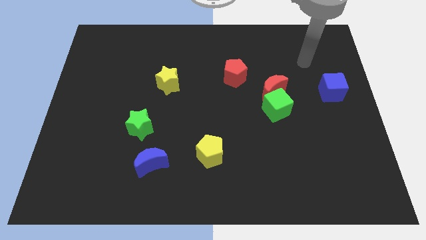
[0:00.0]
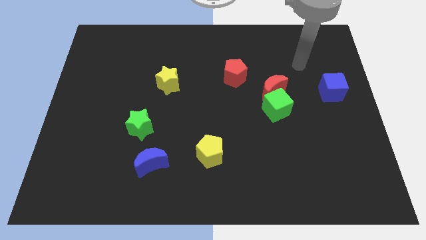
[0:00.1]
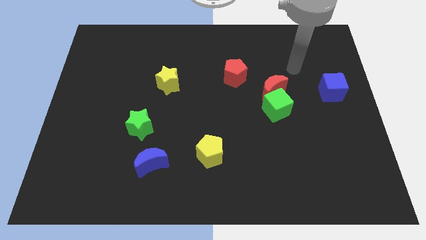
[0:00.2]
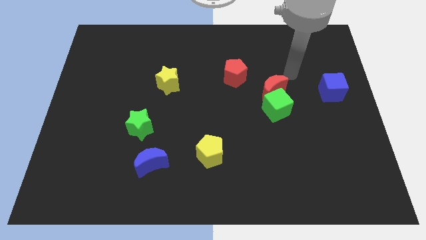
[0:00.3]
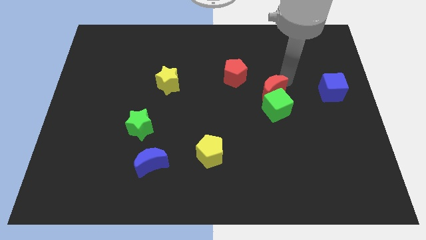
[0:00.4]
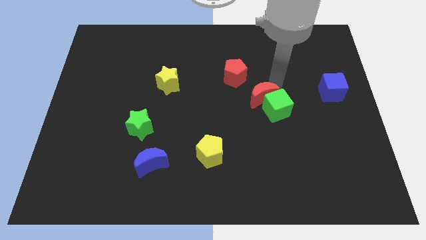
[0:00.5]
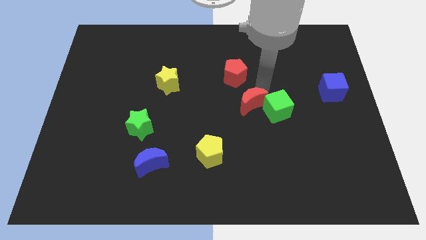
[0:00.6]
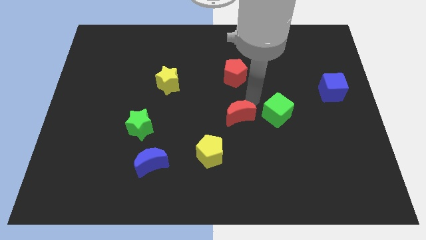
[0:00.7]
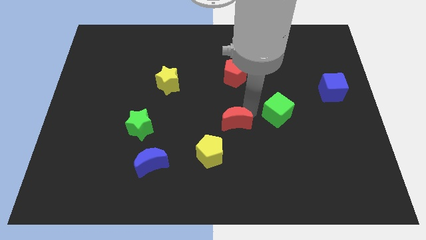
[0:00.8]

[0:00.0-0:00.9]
separate the green cube from the red moon

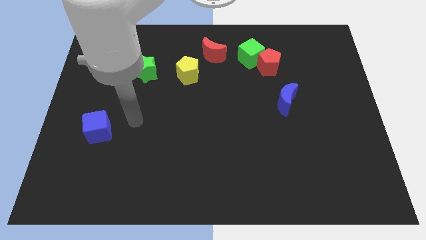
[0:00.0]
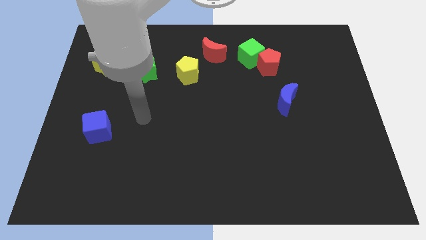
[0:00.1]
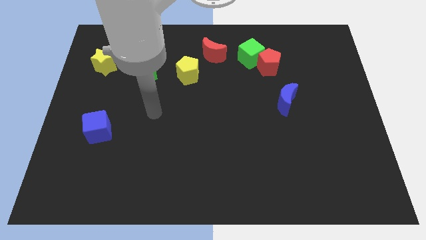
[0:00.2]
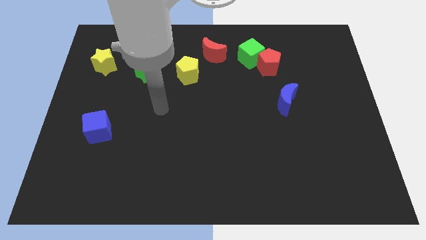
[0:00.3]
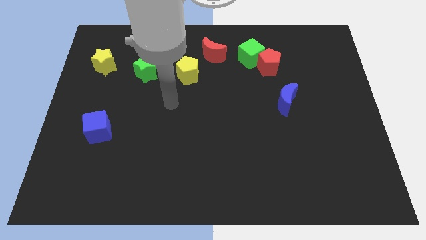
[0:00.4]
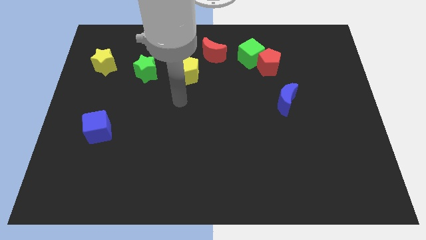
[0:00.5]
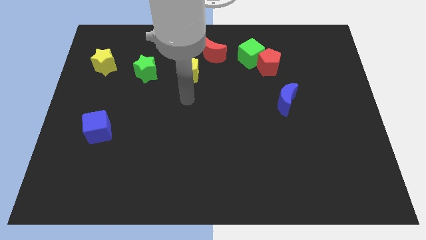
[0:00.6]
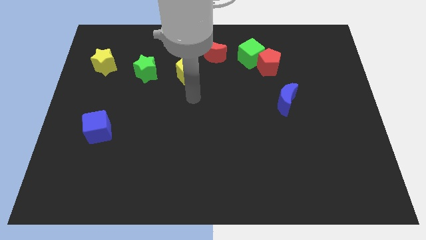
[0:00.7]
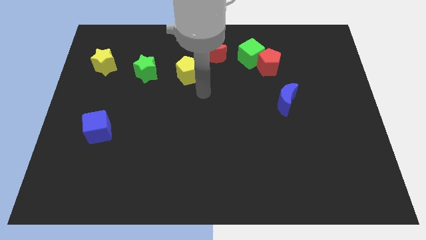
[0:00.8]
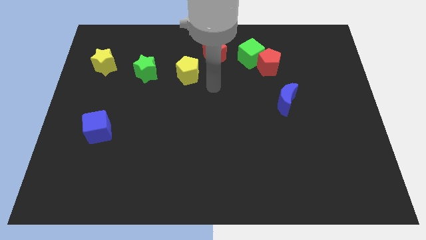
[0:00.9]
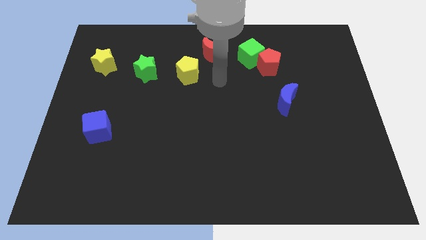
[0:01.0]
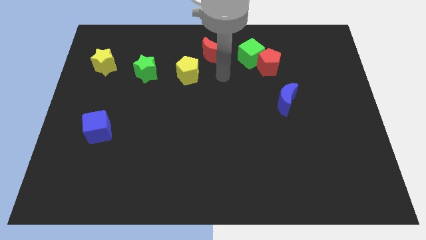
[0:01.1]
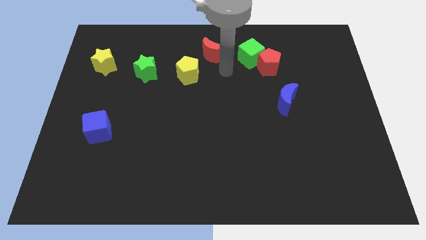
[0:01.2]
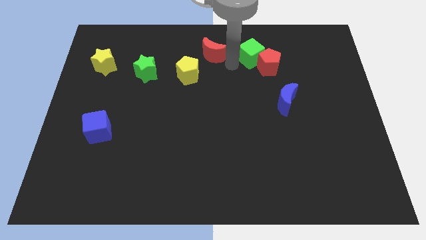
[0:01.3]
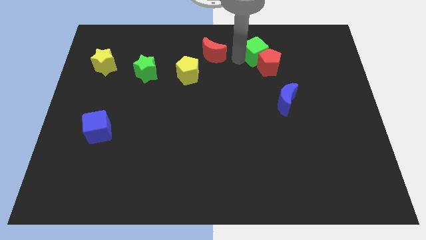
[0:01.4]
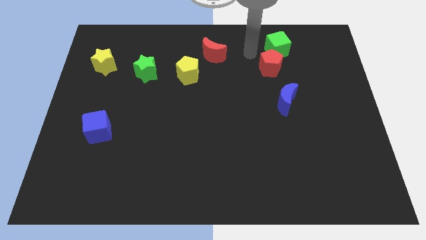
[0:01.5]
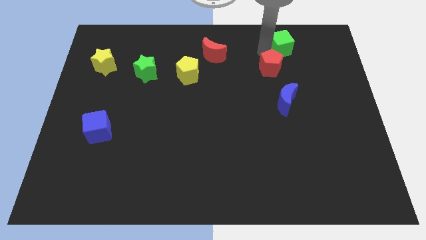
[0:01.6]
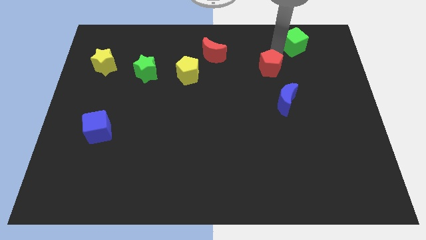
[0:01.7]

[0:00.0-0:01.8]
separate the red pentagon from the green cube

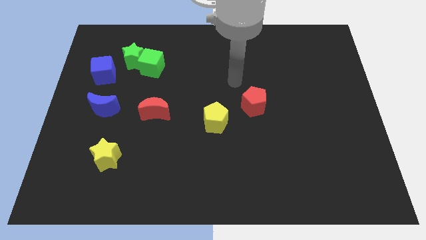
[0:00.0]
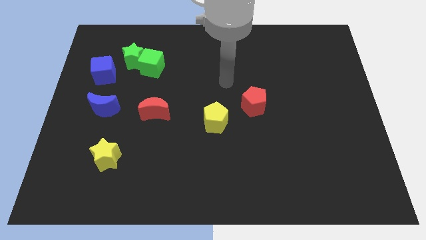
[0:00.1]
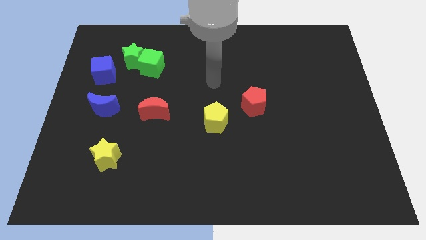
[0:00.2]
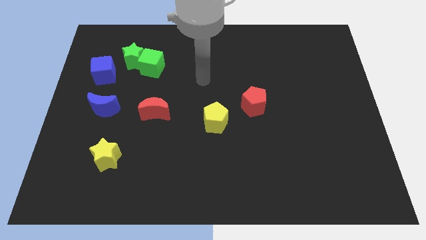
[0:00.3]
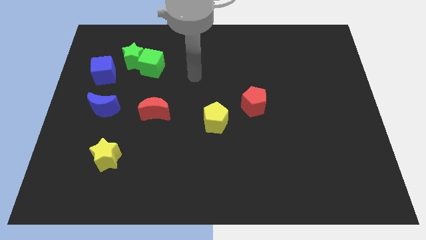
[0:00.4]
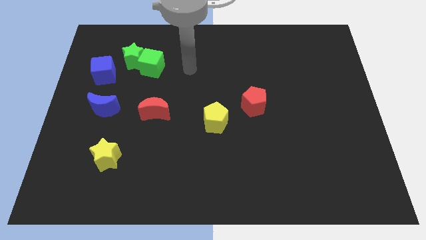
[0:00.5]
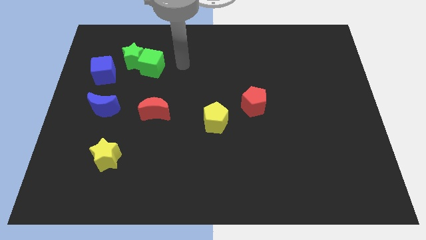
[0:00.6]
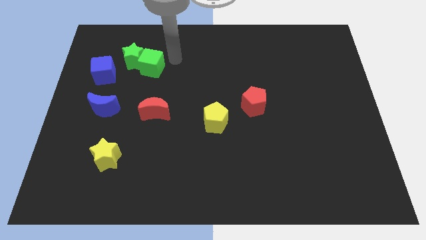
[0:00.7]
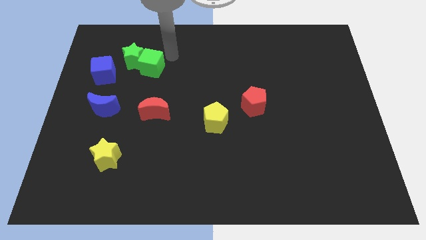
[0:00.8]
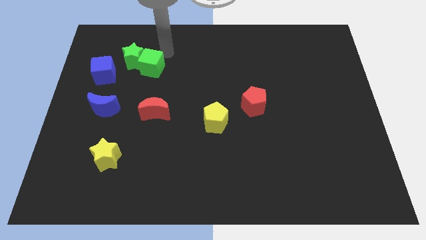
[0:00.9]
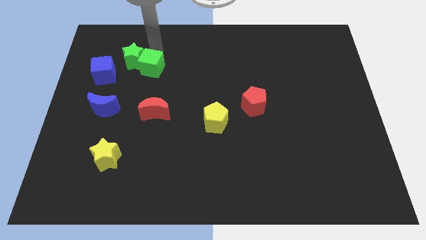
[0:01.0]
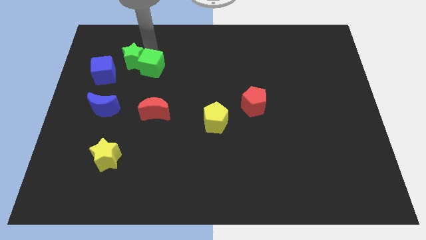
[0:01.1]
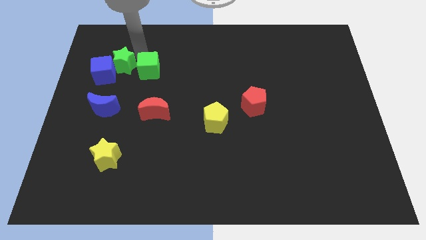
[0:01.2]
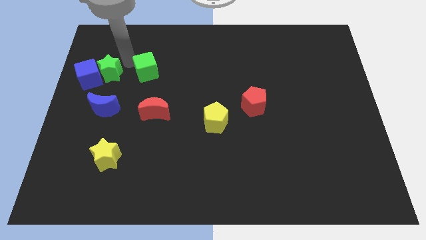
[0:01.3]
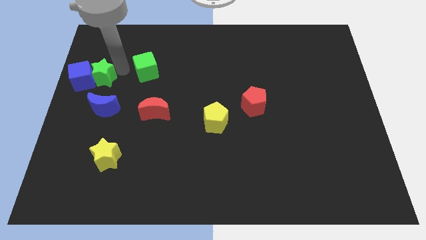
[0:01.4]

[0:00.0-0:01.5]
move the green cube away from the green star

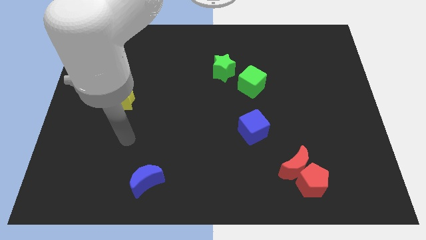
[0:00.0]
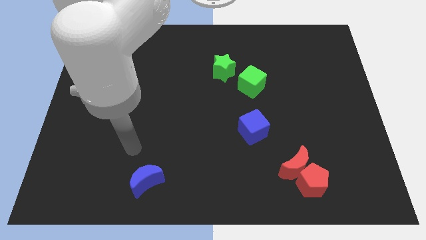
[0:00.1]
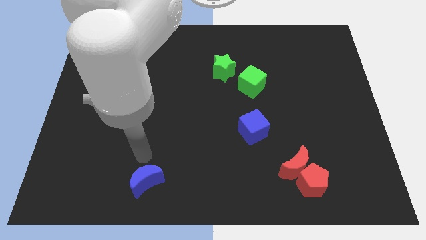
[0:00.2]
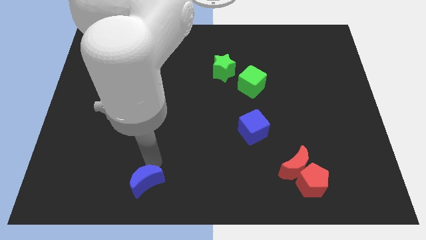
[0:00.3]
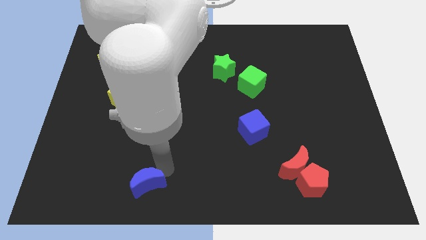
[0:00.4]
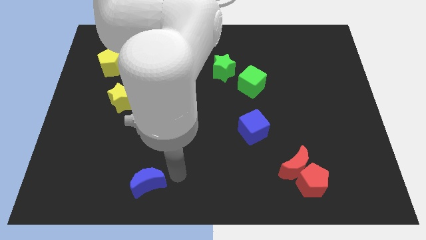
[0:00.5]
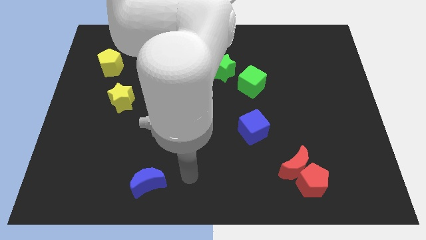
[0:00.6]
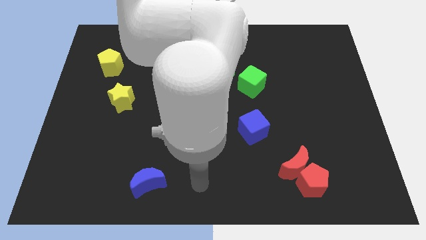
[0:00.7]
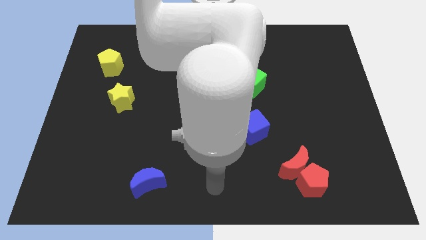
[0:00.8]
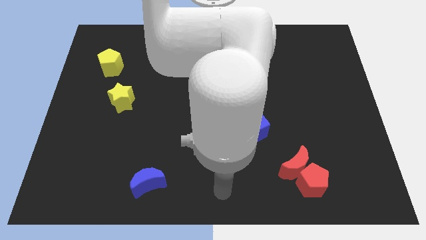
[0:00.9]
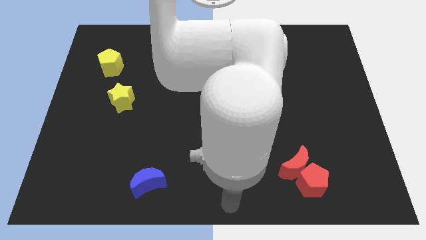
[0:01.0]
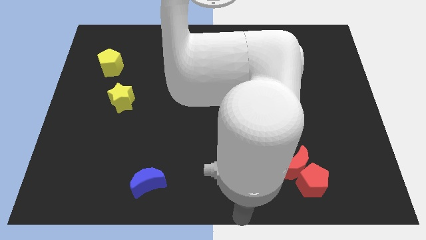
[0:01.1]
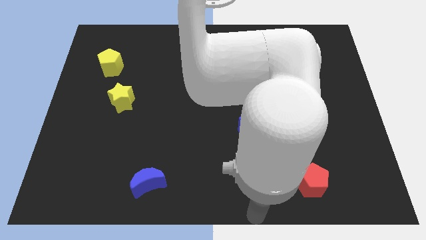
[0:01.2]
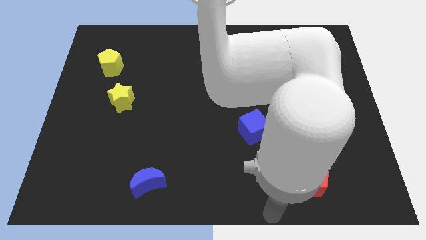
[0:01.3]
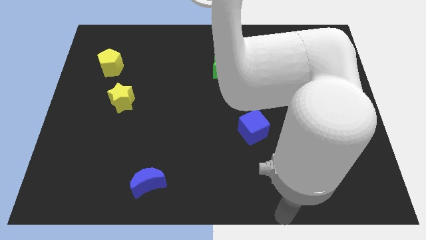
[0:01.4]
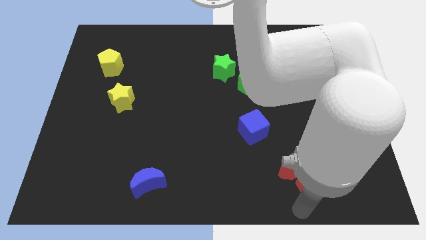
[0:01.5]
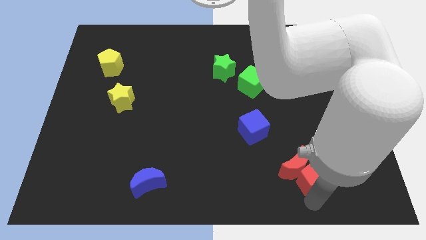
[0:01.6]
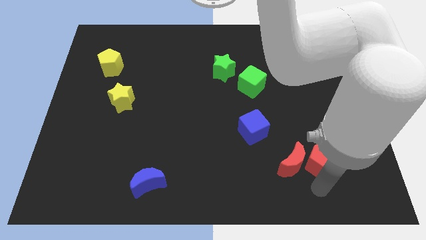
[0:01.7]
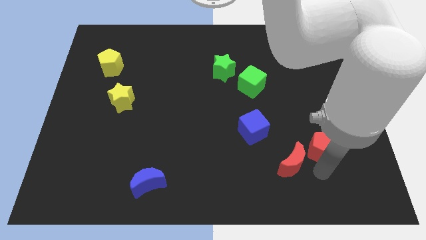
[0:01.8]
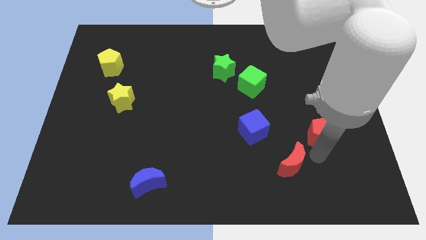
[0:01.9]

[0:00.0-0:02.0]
move the red moon away from the red pentagon

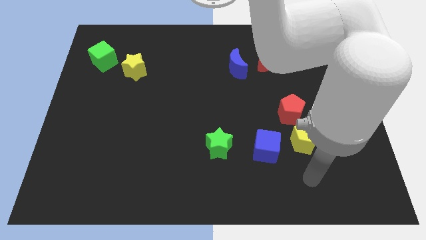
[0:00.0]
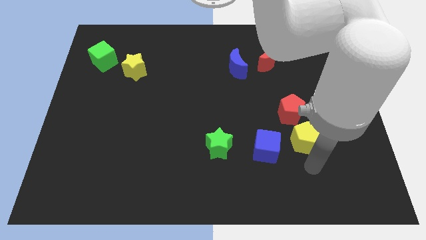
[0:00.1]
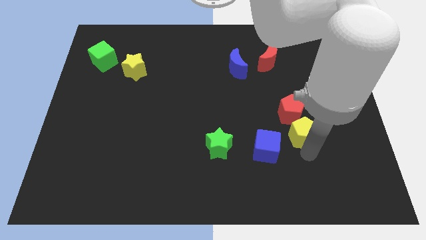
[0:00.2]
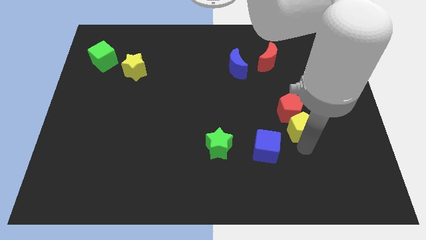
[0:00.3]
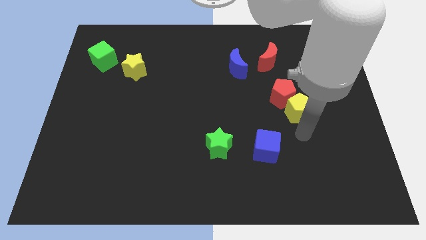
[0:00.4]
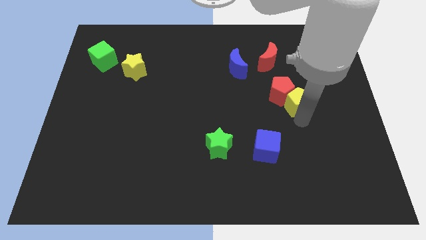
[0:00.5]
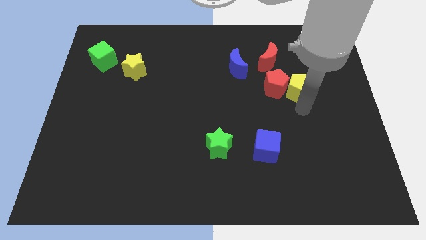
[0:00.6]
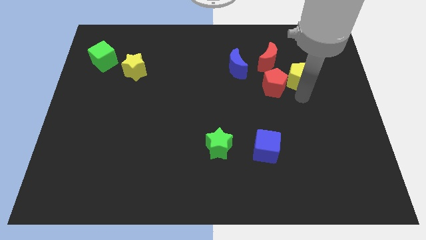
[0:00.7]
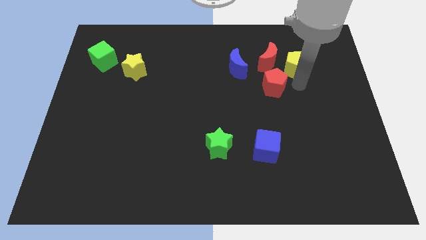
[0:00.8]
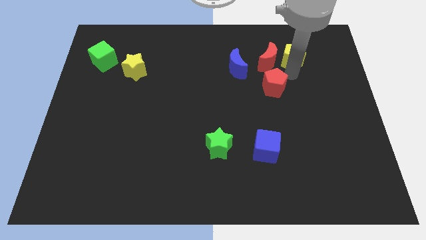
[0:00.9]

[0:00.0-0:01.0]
move the red pentagon away from the yellow pentagon

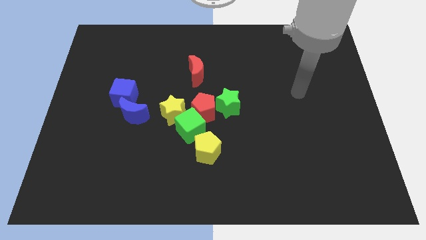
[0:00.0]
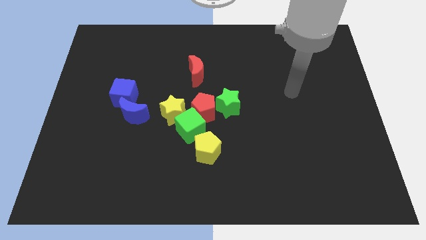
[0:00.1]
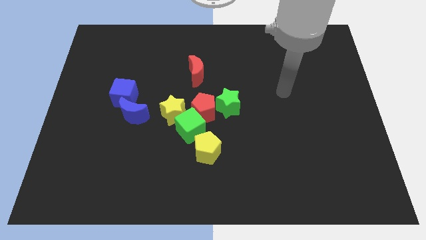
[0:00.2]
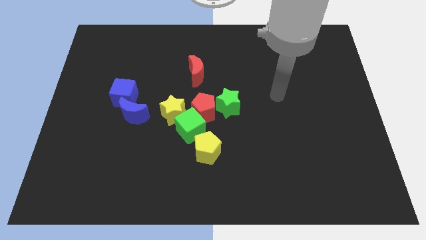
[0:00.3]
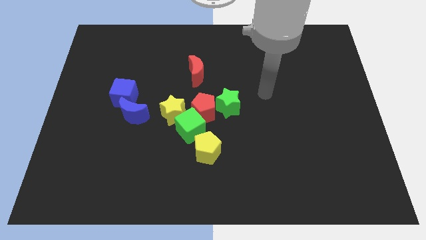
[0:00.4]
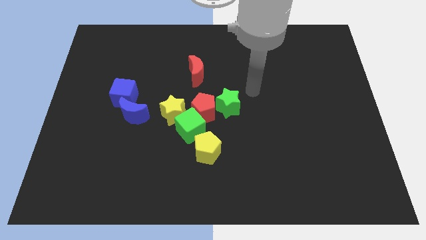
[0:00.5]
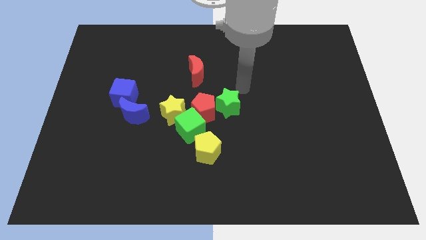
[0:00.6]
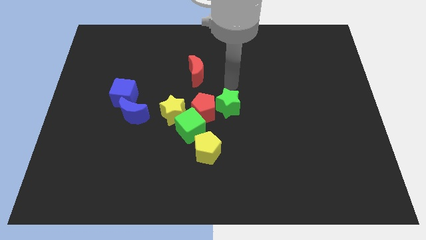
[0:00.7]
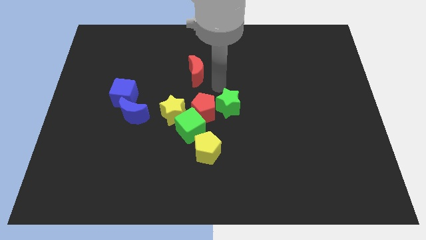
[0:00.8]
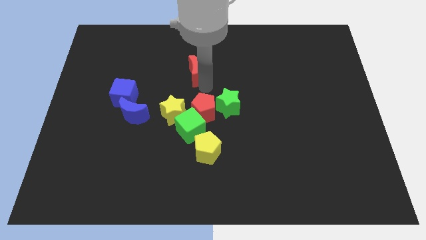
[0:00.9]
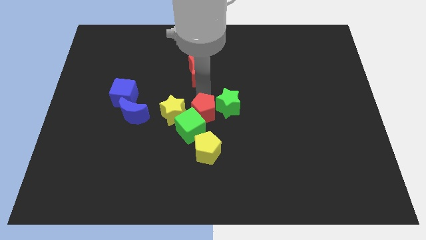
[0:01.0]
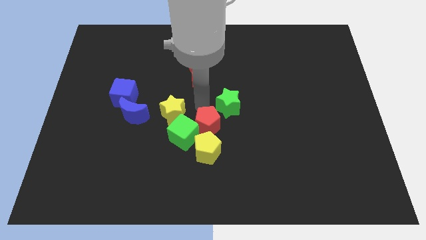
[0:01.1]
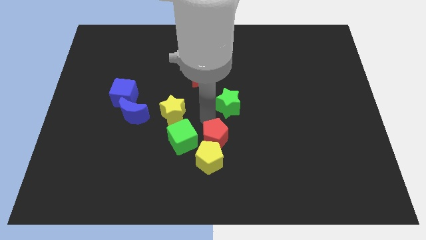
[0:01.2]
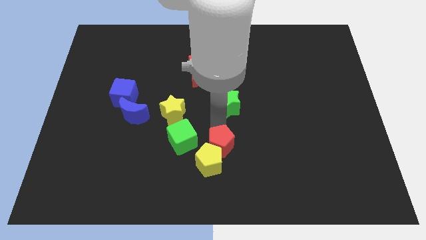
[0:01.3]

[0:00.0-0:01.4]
separate the green star from the red pentagon

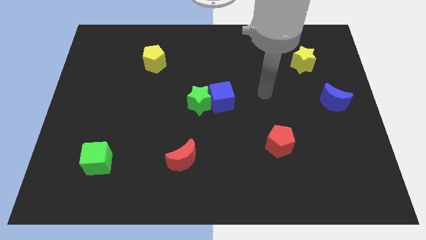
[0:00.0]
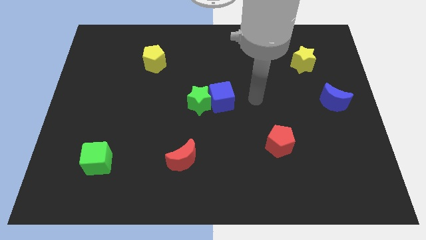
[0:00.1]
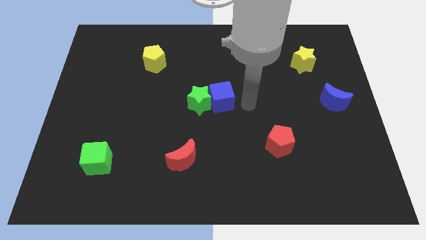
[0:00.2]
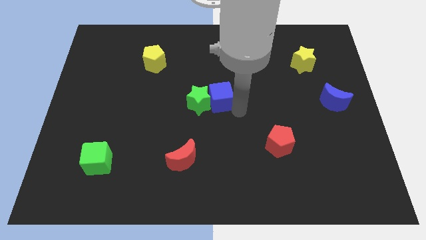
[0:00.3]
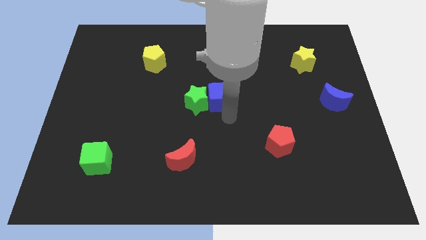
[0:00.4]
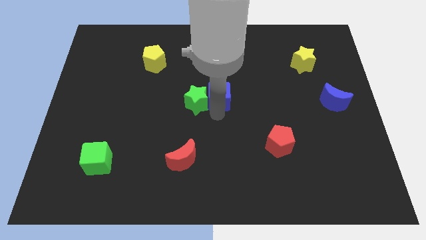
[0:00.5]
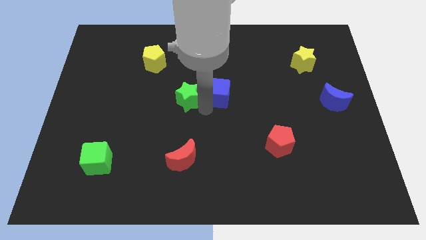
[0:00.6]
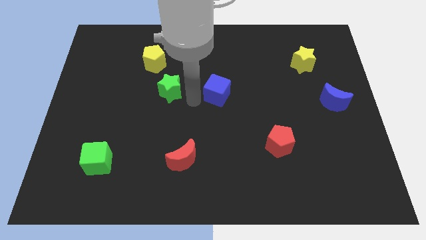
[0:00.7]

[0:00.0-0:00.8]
move the blue cube away from the green star
